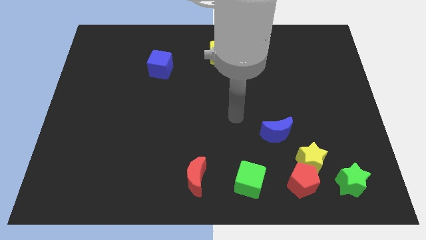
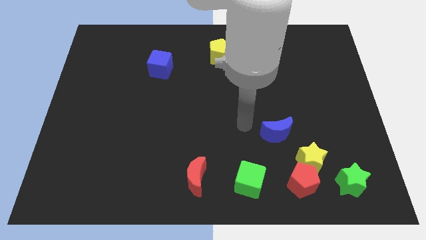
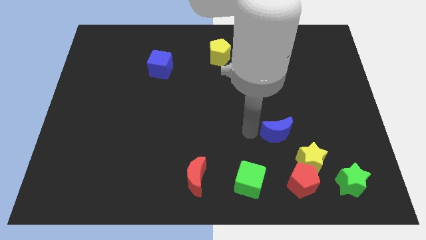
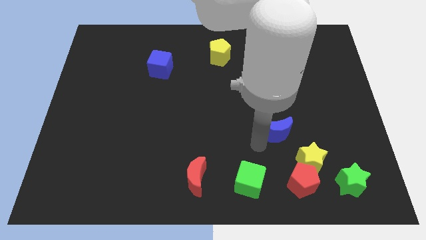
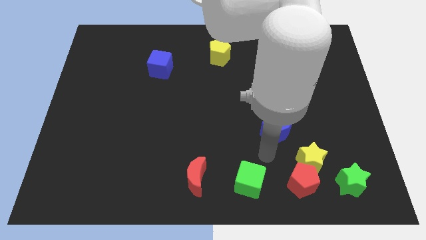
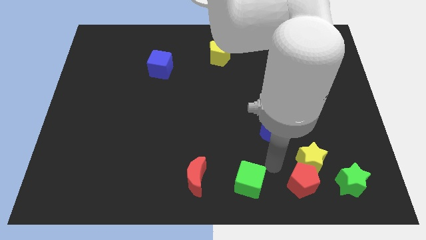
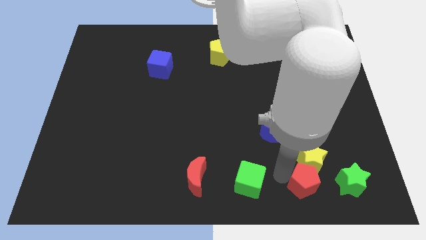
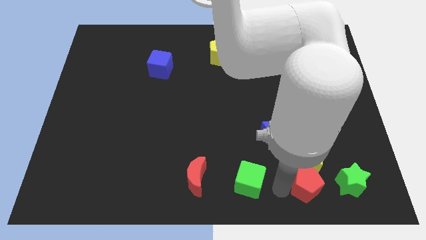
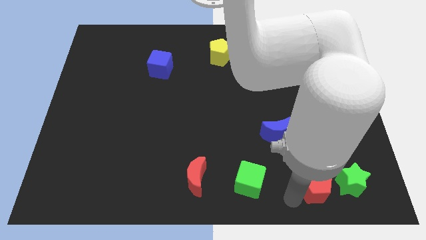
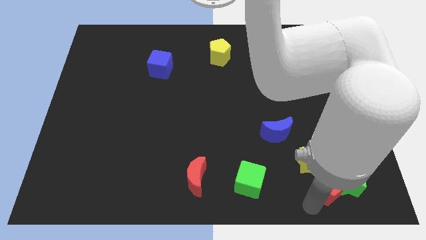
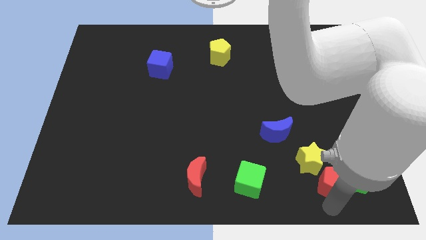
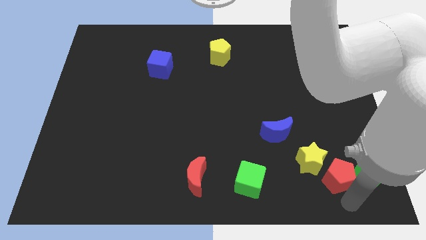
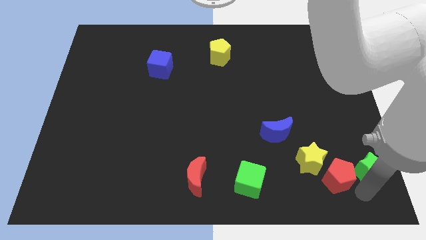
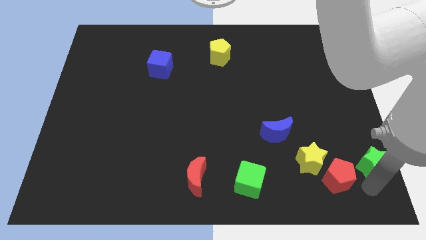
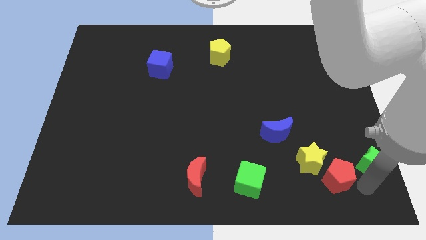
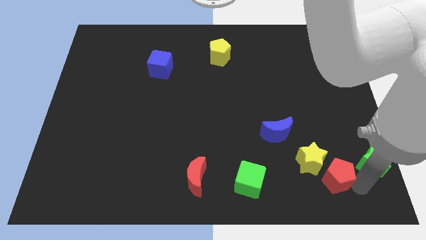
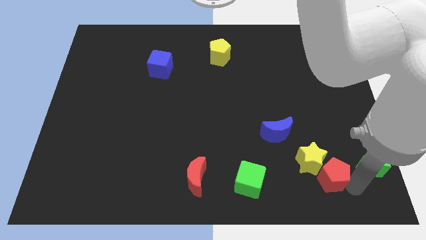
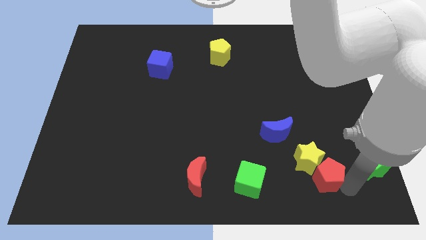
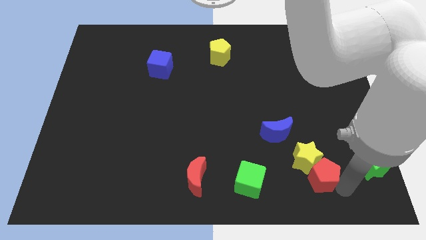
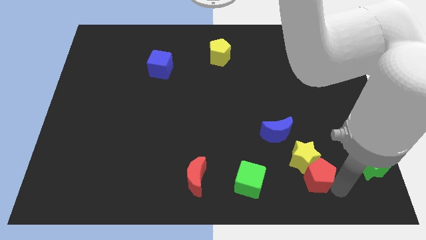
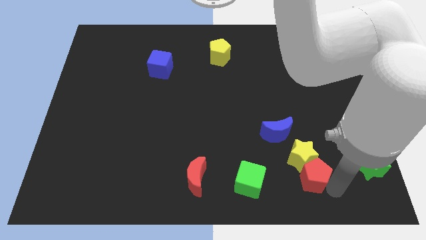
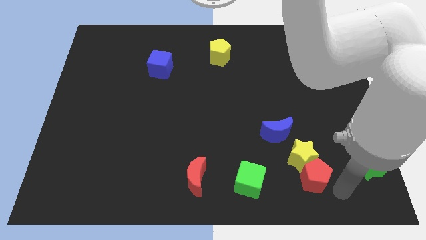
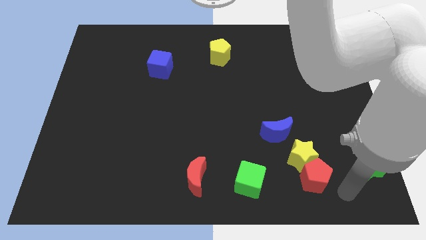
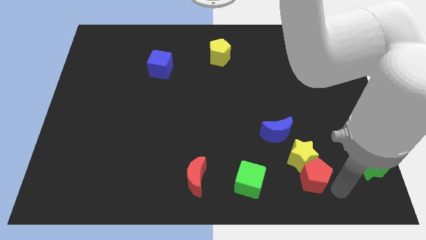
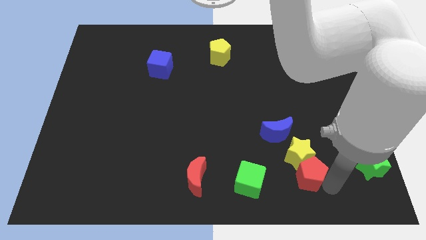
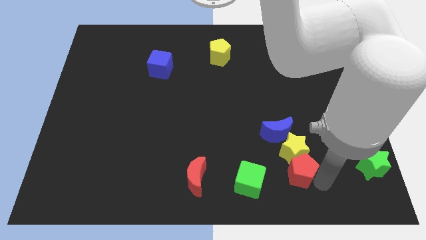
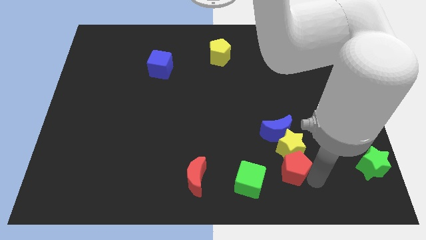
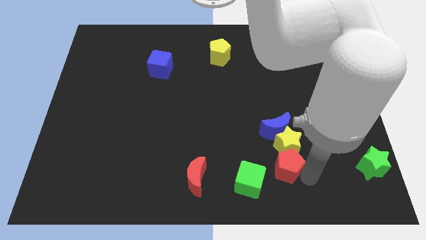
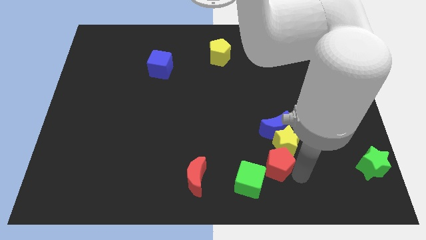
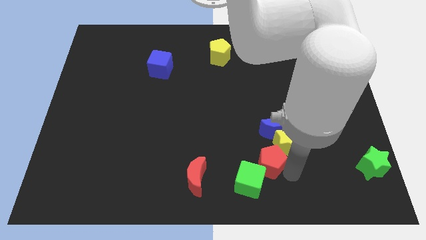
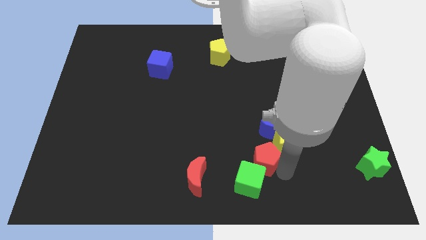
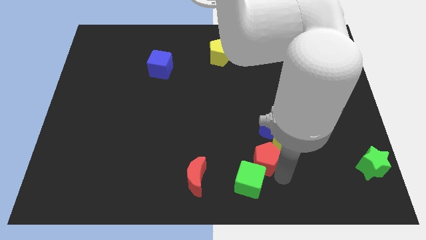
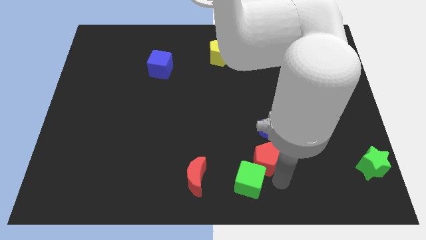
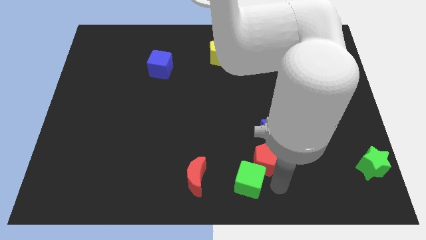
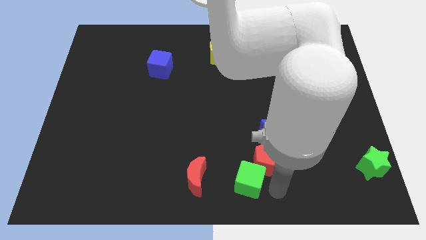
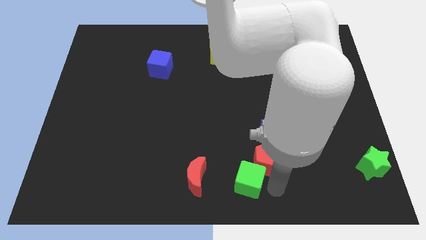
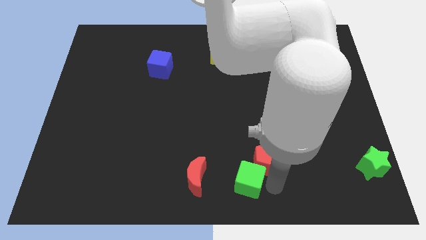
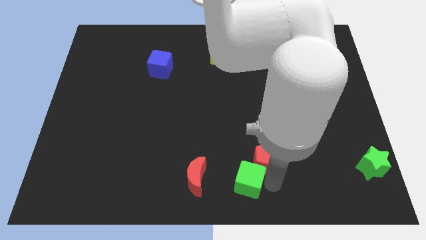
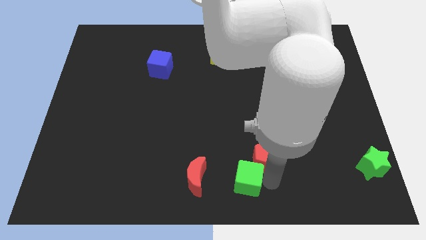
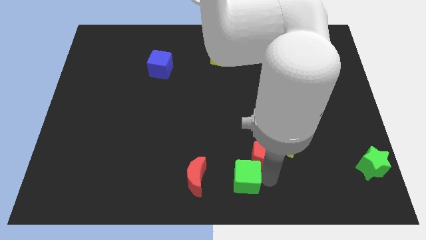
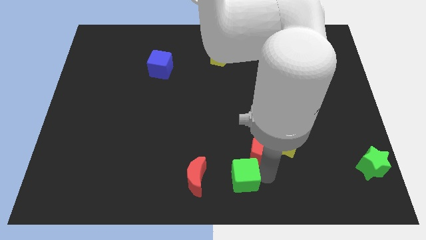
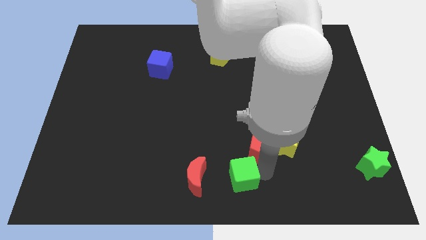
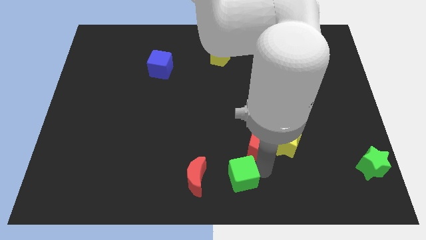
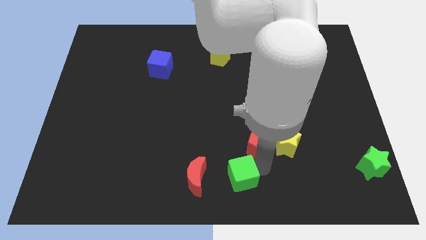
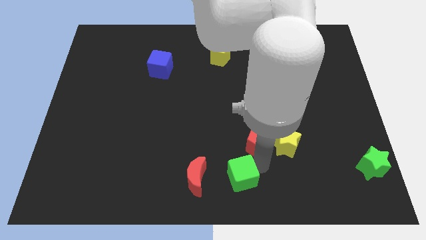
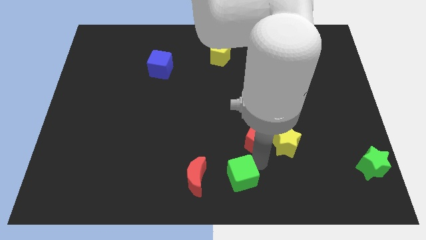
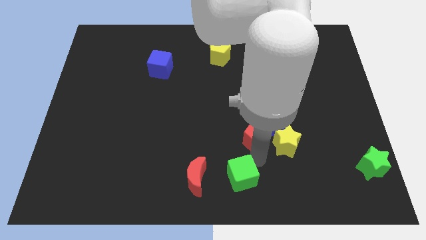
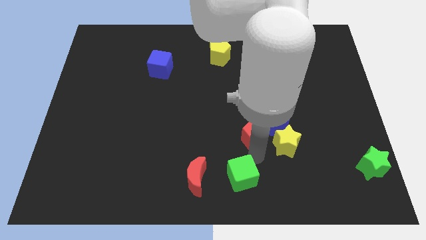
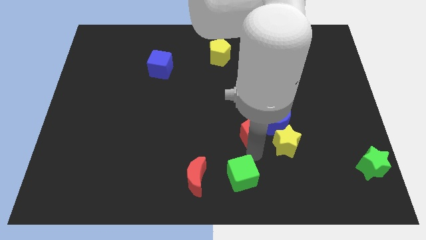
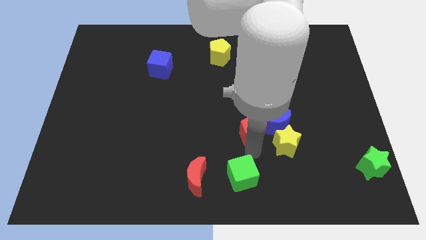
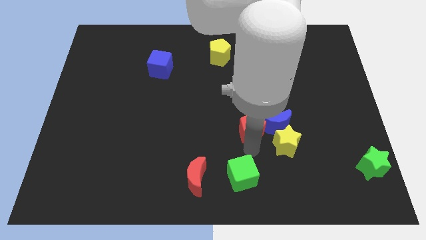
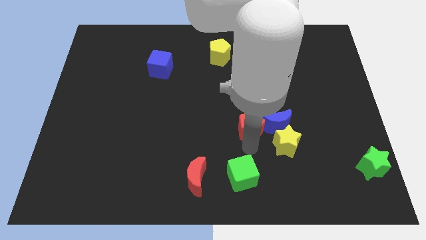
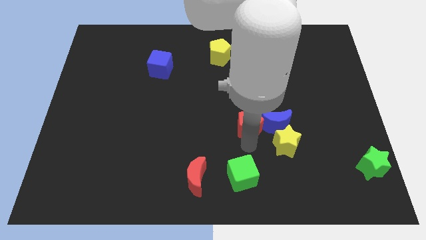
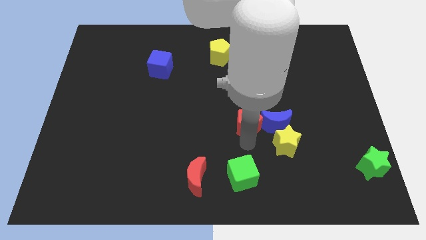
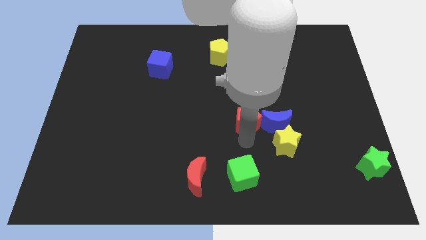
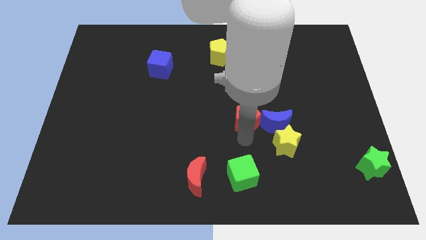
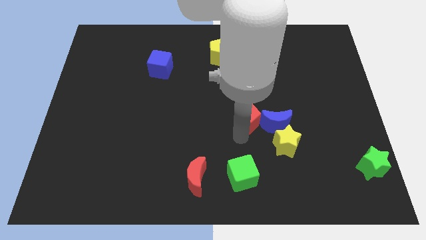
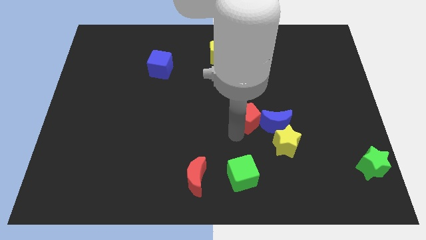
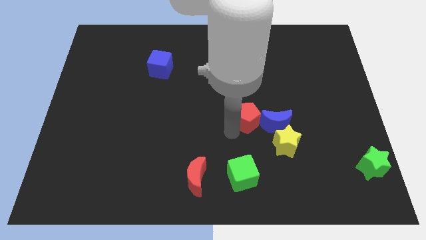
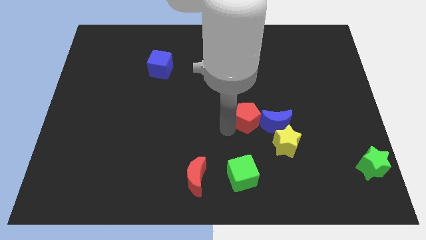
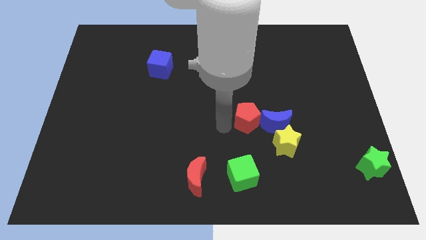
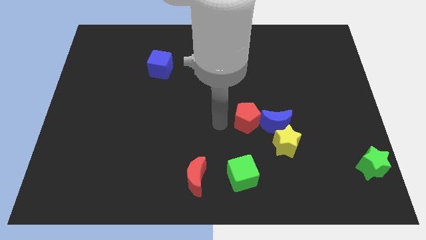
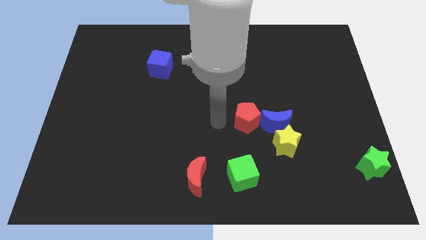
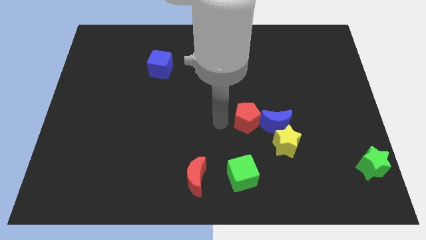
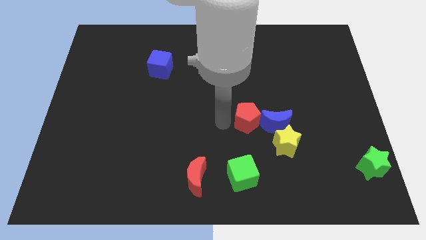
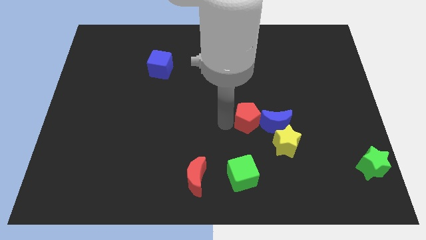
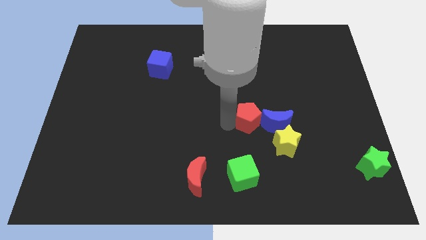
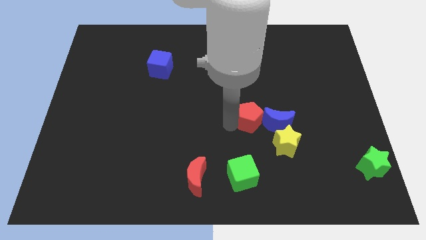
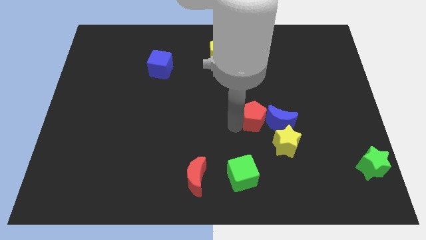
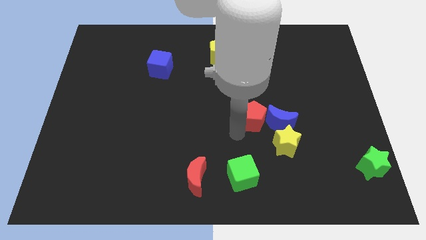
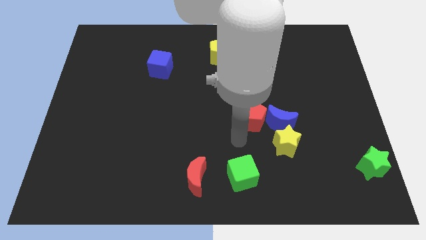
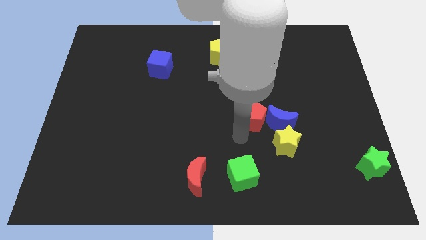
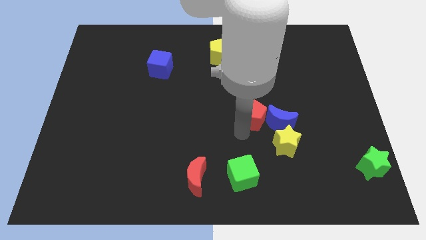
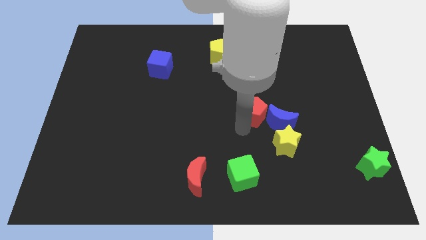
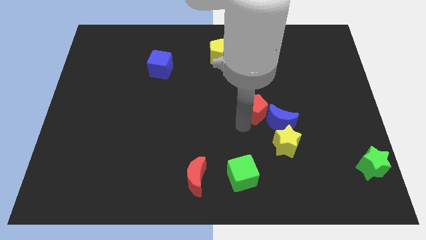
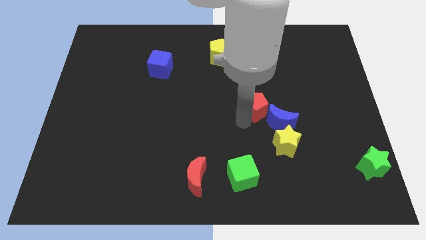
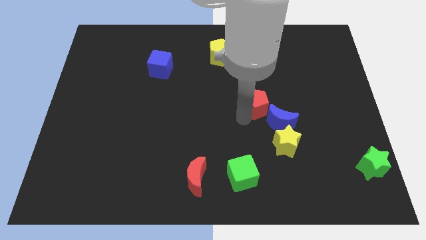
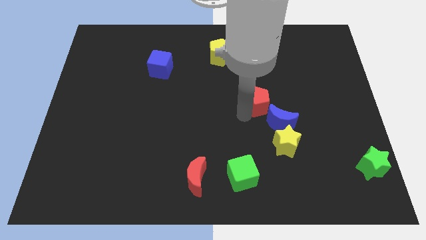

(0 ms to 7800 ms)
push the red pentagon to the top of the blue moon
